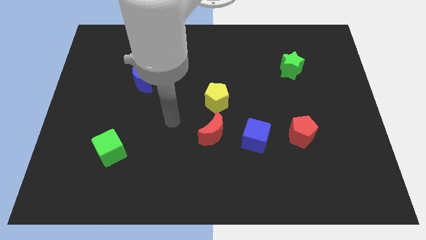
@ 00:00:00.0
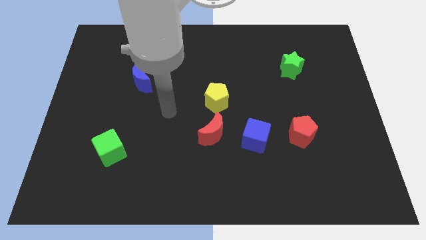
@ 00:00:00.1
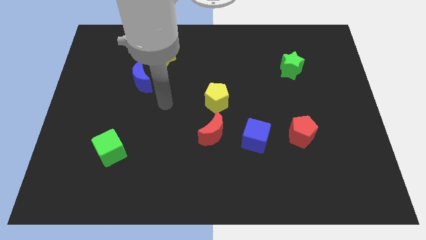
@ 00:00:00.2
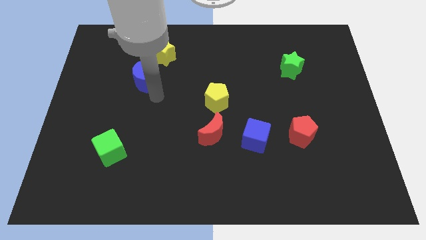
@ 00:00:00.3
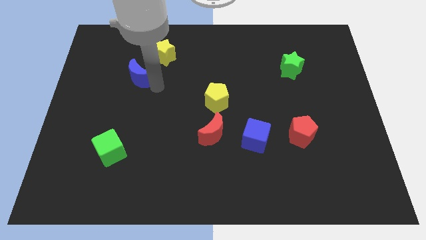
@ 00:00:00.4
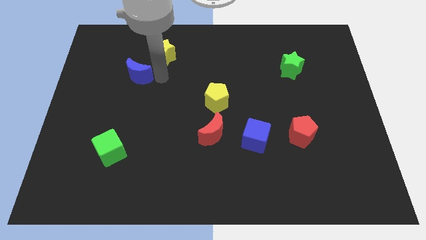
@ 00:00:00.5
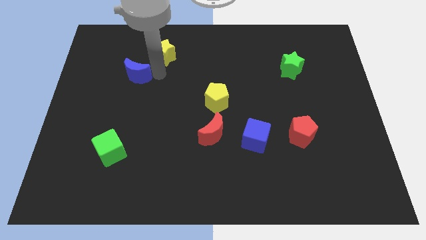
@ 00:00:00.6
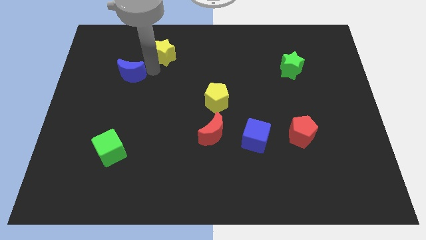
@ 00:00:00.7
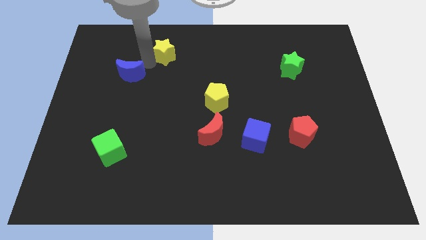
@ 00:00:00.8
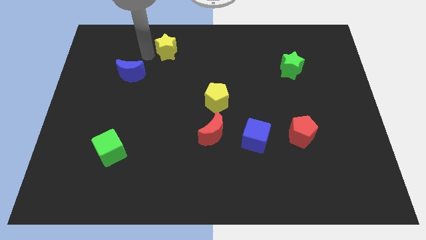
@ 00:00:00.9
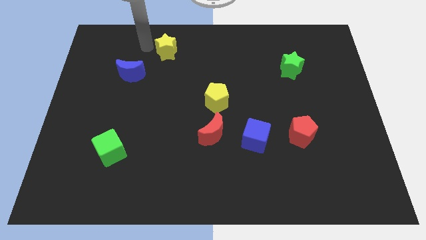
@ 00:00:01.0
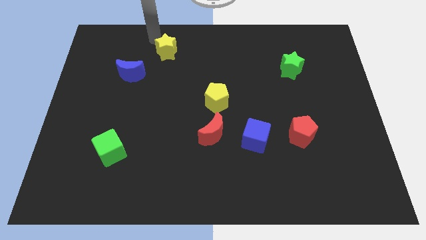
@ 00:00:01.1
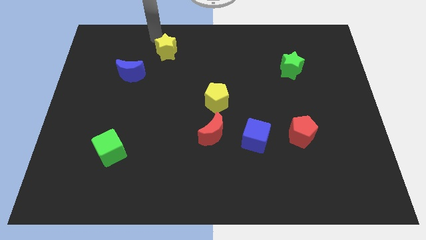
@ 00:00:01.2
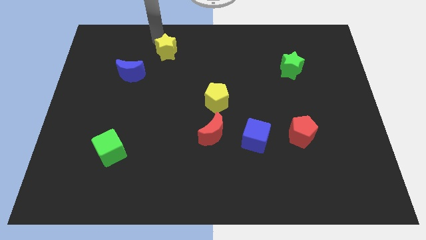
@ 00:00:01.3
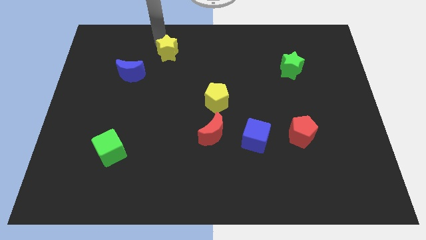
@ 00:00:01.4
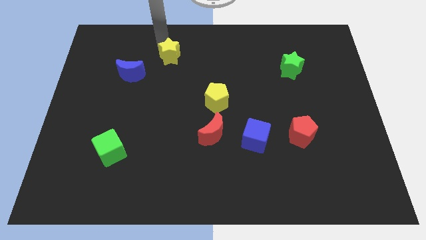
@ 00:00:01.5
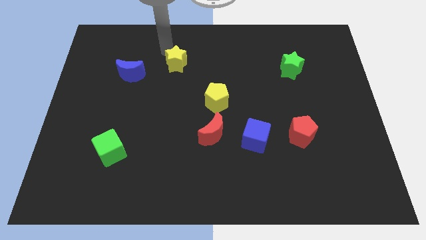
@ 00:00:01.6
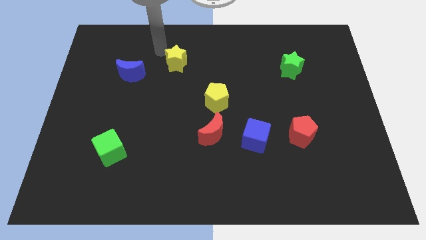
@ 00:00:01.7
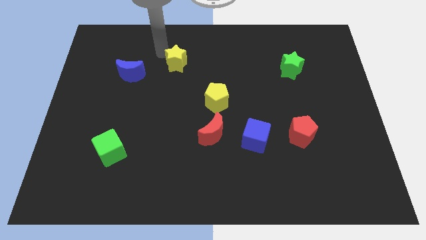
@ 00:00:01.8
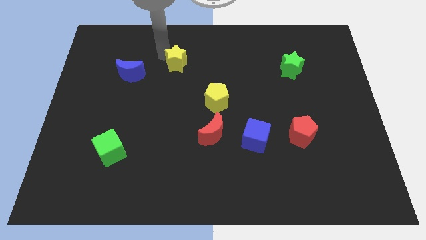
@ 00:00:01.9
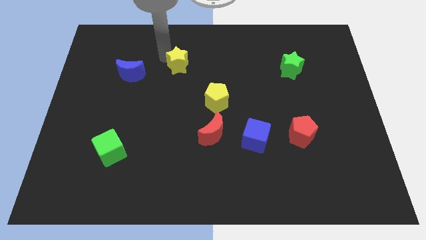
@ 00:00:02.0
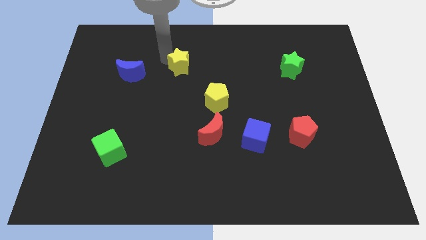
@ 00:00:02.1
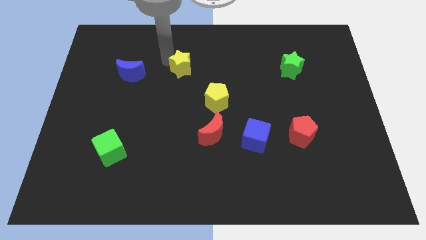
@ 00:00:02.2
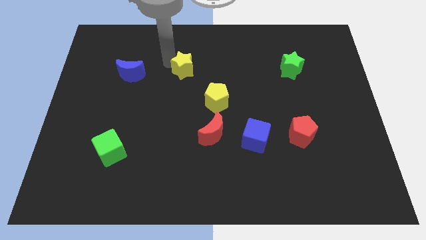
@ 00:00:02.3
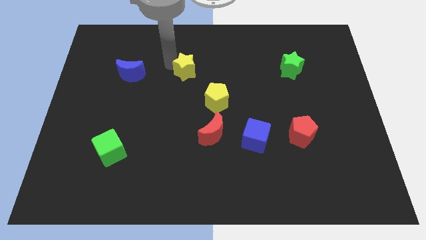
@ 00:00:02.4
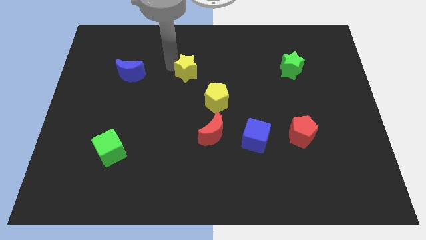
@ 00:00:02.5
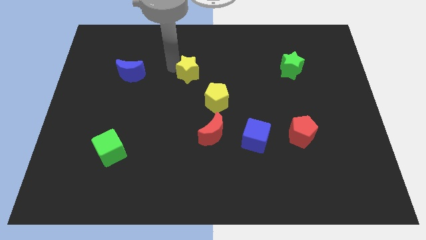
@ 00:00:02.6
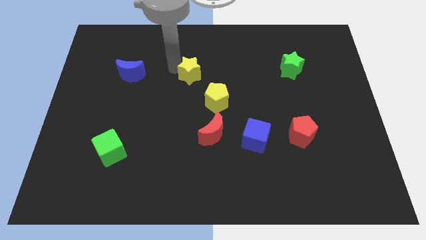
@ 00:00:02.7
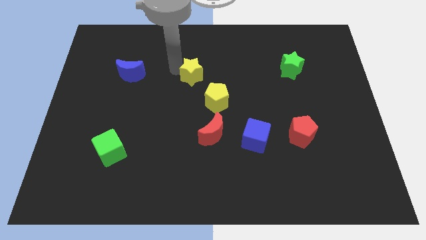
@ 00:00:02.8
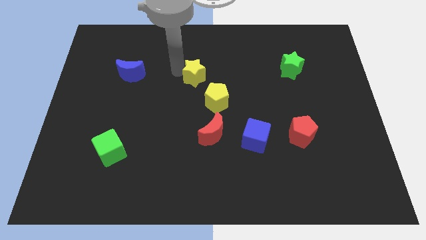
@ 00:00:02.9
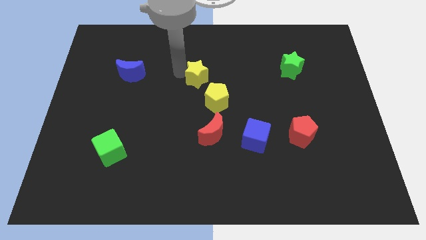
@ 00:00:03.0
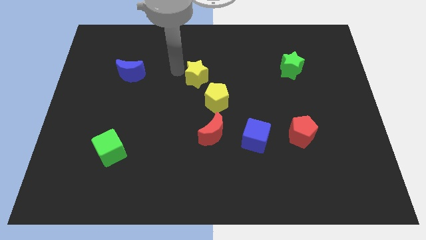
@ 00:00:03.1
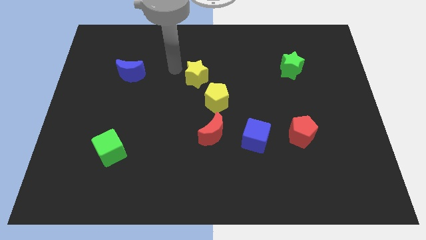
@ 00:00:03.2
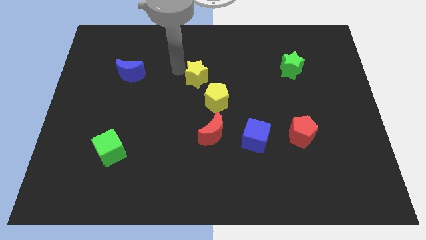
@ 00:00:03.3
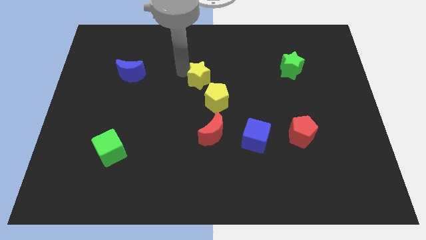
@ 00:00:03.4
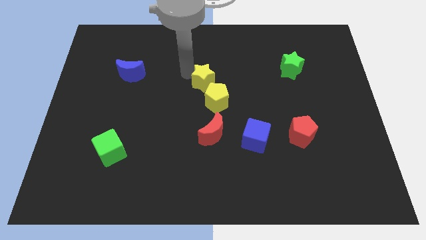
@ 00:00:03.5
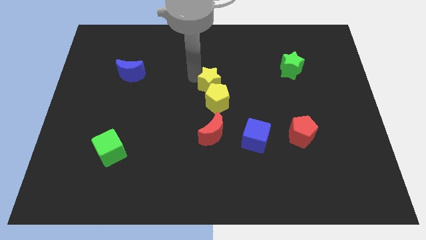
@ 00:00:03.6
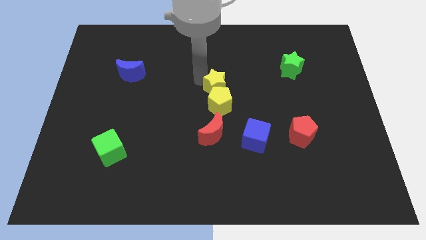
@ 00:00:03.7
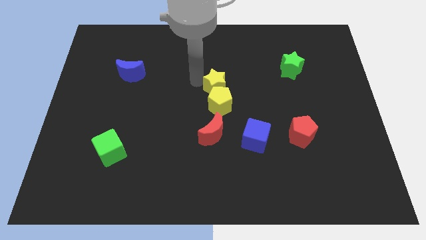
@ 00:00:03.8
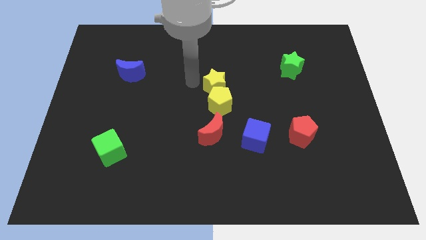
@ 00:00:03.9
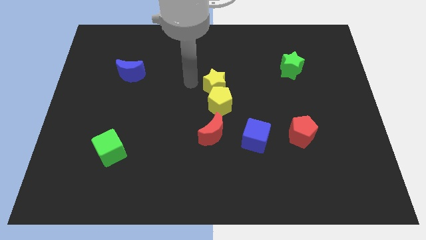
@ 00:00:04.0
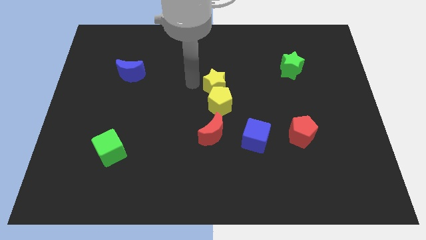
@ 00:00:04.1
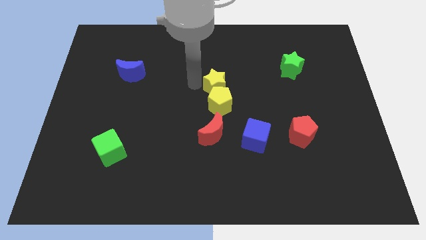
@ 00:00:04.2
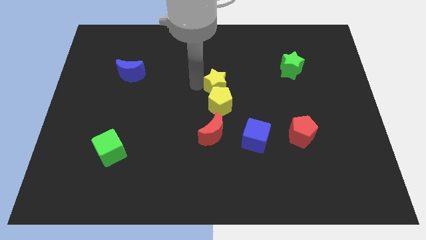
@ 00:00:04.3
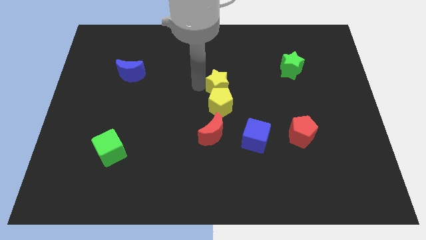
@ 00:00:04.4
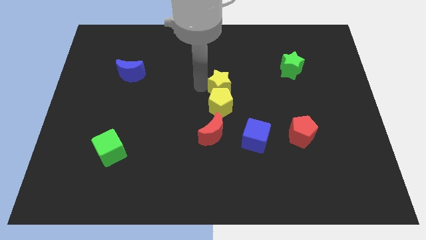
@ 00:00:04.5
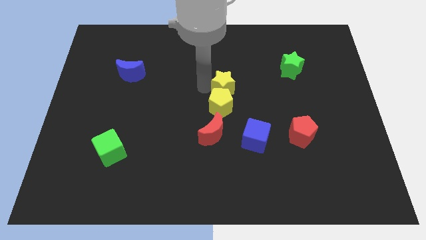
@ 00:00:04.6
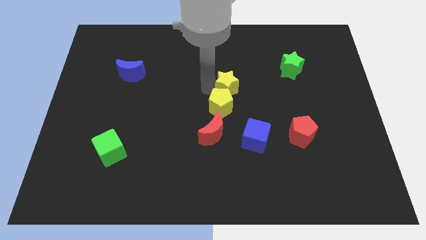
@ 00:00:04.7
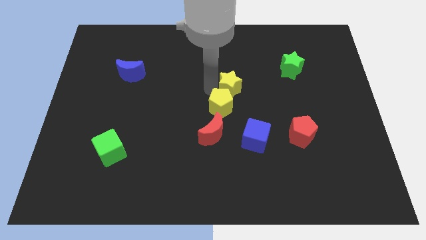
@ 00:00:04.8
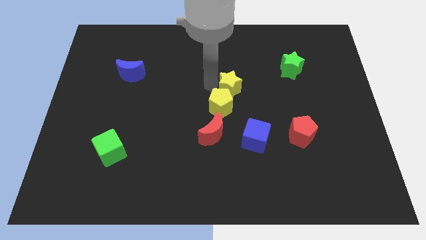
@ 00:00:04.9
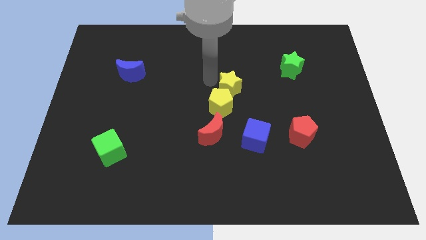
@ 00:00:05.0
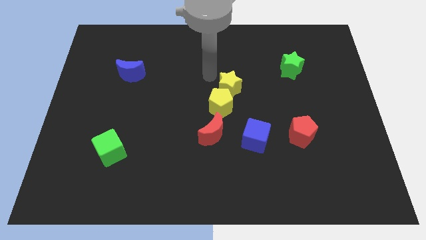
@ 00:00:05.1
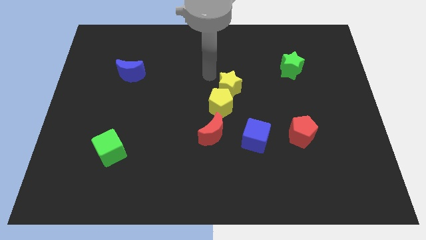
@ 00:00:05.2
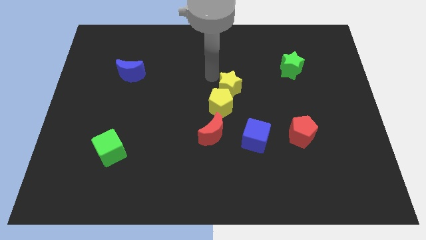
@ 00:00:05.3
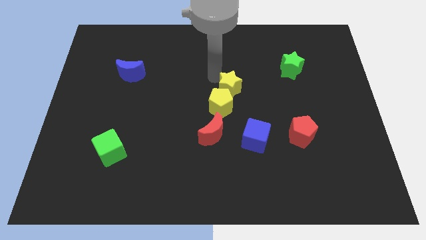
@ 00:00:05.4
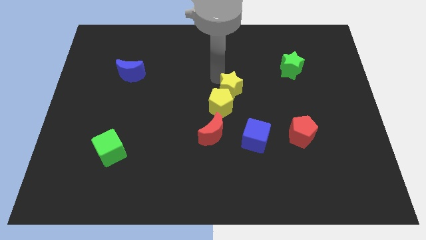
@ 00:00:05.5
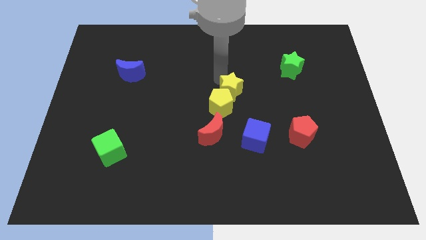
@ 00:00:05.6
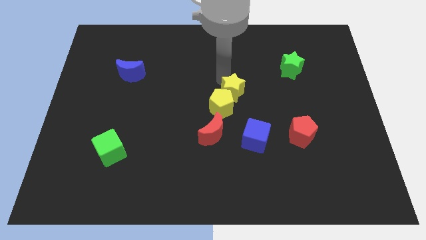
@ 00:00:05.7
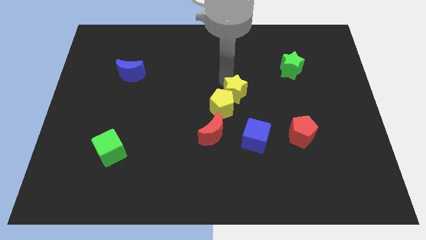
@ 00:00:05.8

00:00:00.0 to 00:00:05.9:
move the yellow star above the blue cube
